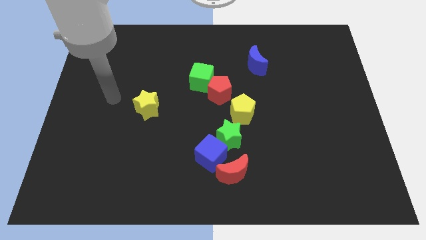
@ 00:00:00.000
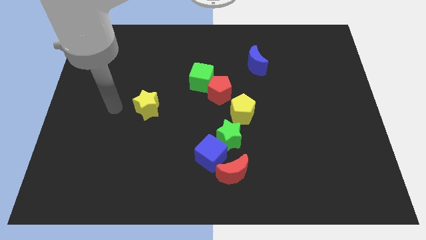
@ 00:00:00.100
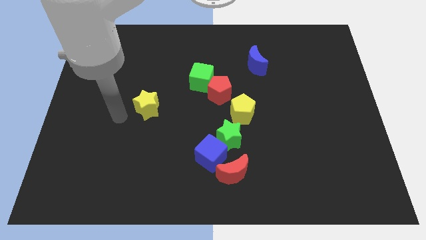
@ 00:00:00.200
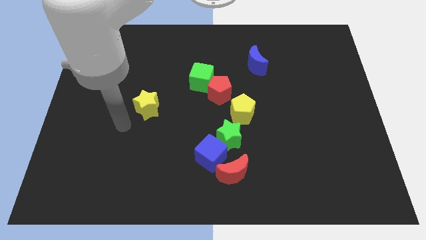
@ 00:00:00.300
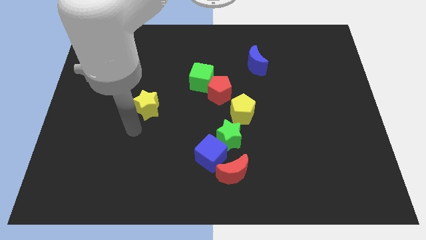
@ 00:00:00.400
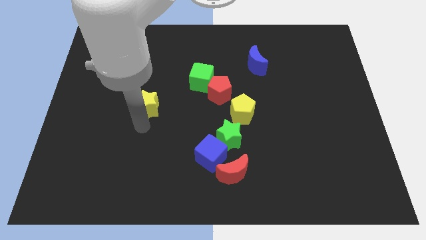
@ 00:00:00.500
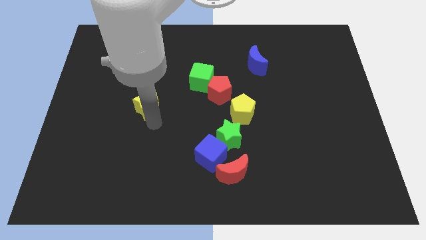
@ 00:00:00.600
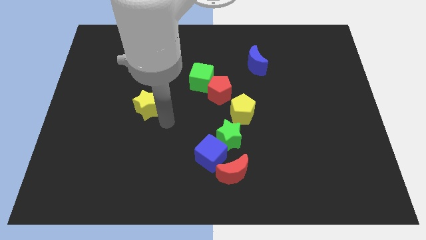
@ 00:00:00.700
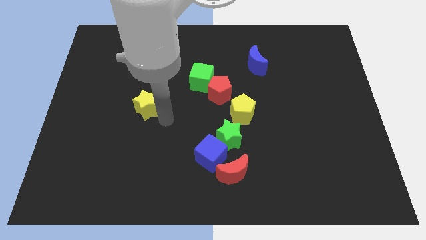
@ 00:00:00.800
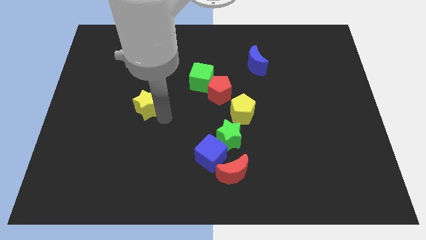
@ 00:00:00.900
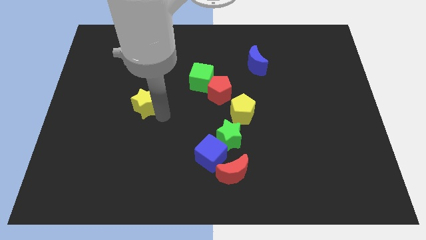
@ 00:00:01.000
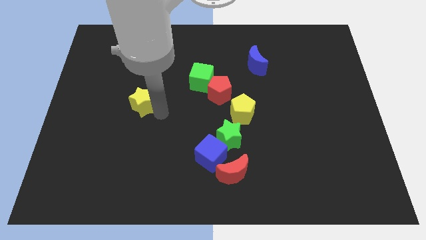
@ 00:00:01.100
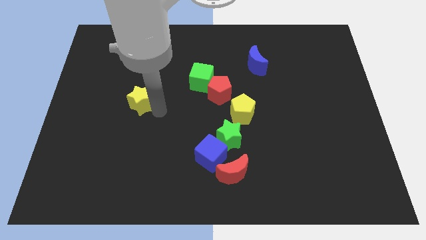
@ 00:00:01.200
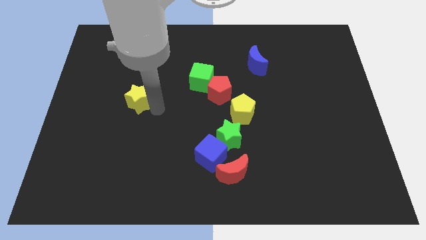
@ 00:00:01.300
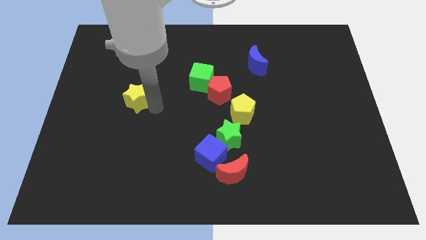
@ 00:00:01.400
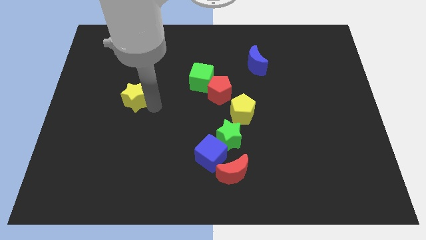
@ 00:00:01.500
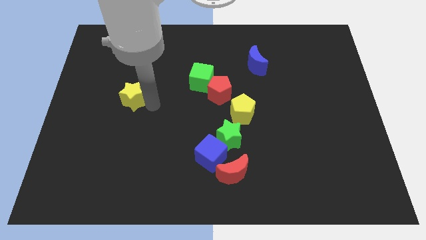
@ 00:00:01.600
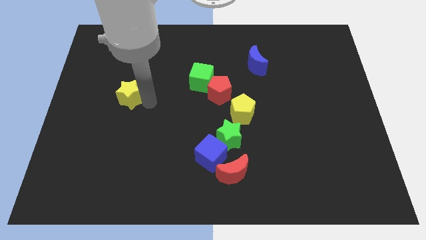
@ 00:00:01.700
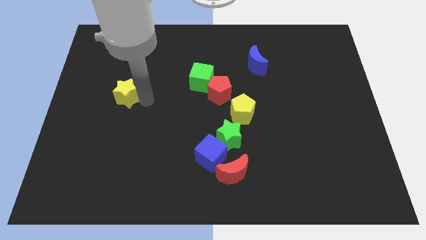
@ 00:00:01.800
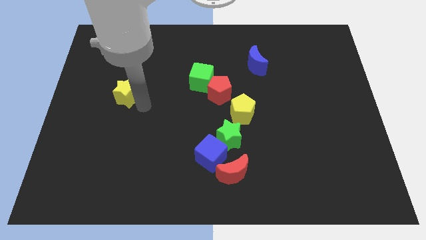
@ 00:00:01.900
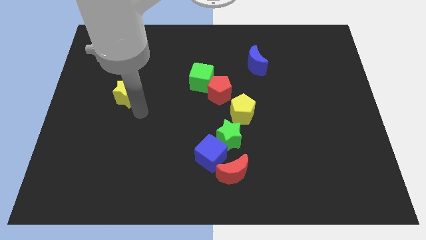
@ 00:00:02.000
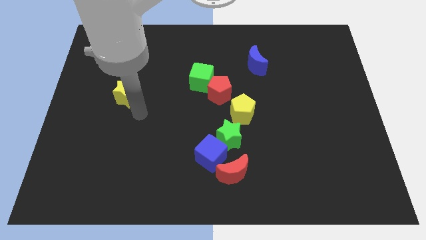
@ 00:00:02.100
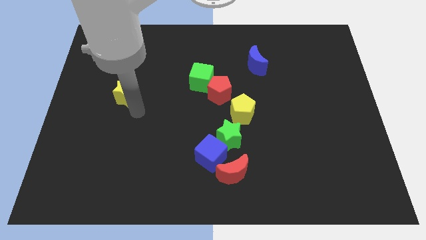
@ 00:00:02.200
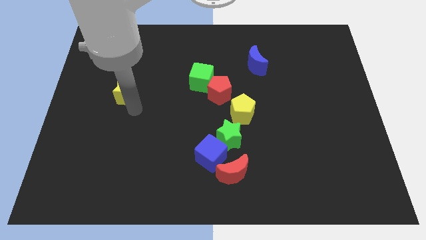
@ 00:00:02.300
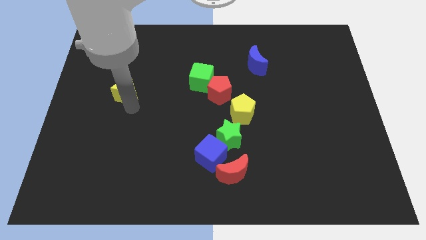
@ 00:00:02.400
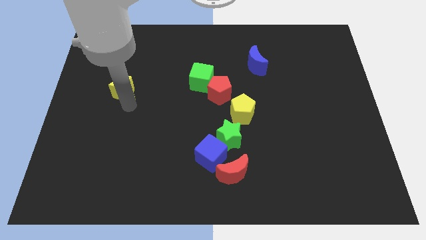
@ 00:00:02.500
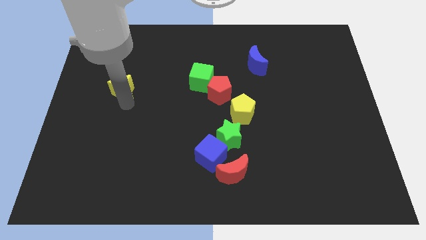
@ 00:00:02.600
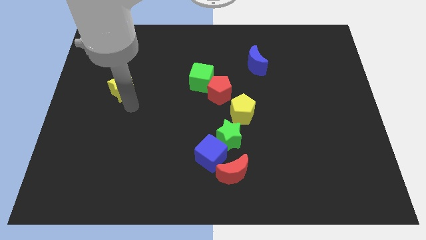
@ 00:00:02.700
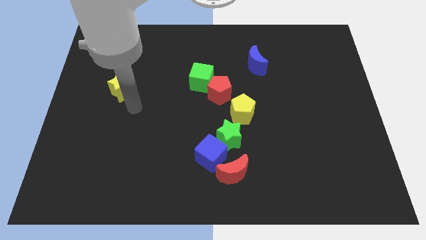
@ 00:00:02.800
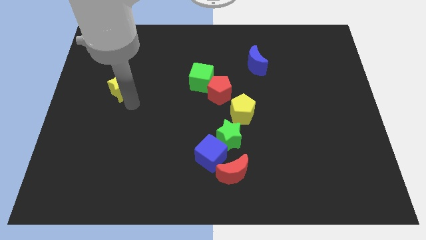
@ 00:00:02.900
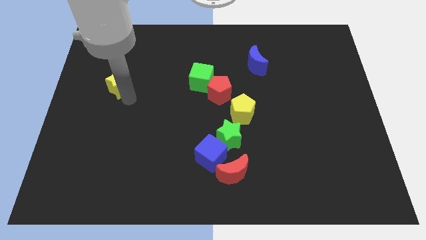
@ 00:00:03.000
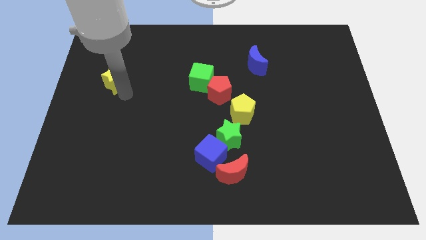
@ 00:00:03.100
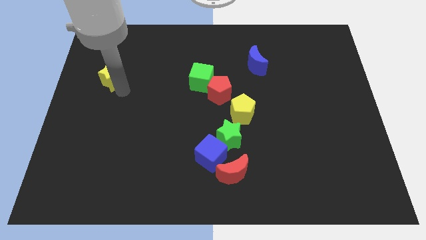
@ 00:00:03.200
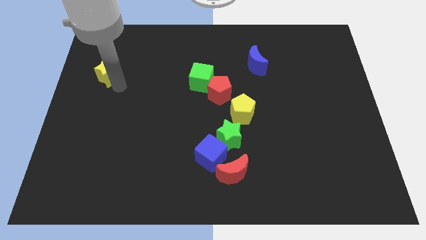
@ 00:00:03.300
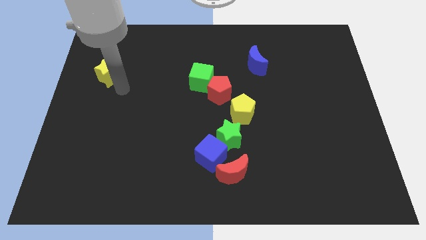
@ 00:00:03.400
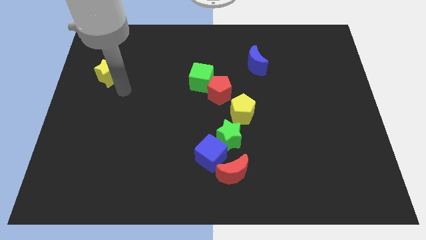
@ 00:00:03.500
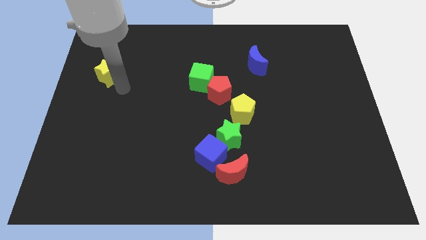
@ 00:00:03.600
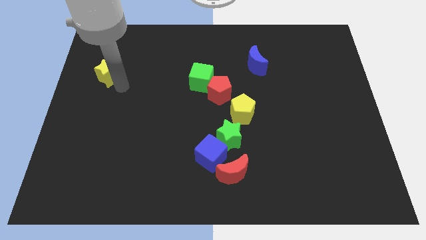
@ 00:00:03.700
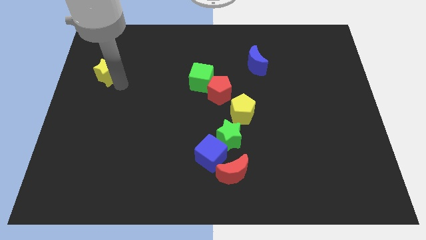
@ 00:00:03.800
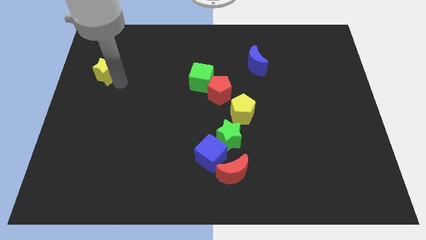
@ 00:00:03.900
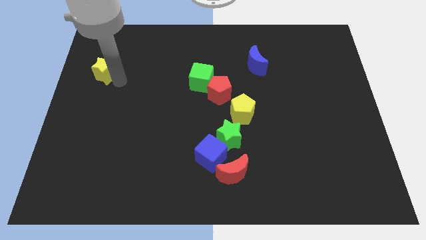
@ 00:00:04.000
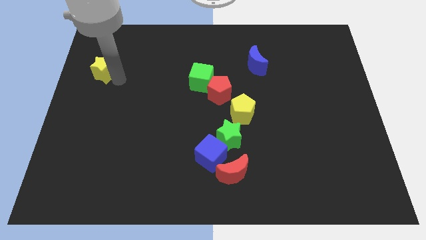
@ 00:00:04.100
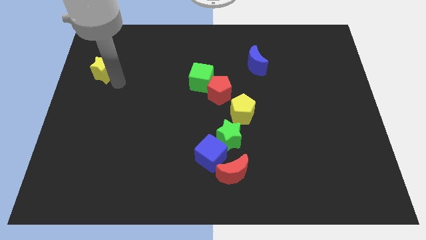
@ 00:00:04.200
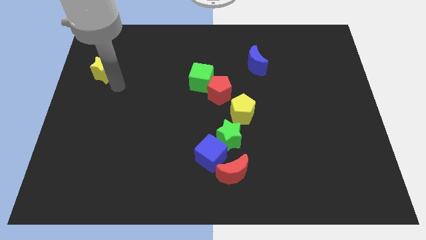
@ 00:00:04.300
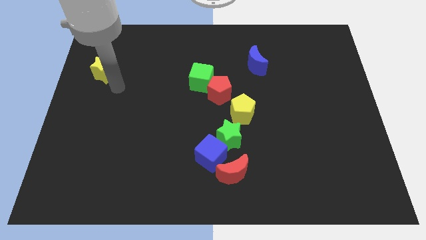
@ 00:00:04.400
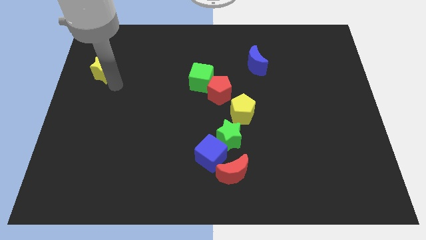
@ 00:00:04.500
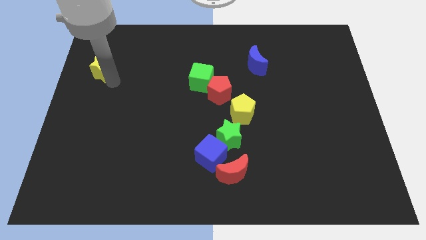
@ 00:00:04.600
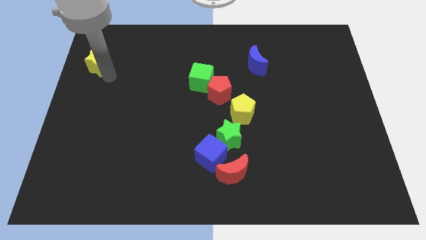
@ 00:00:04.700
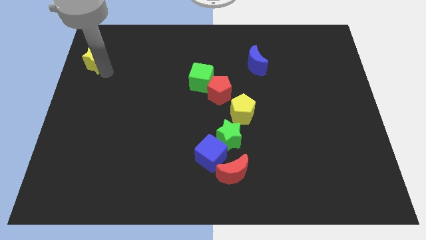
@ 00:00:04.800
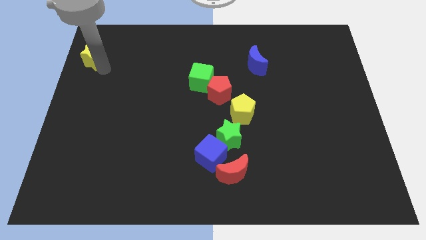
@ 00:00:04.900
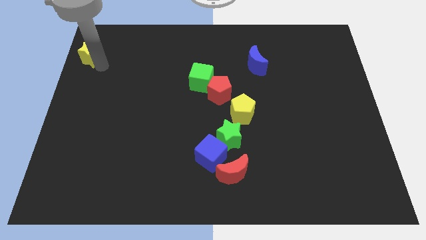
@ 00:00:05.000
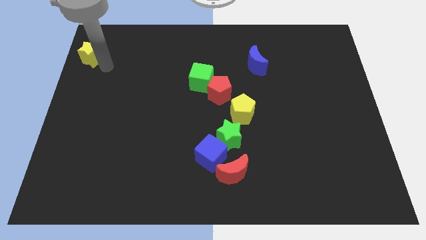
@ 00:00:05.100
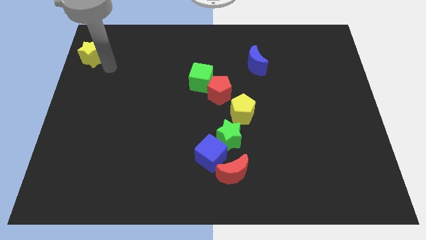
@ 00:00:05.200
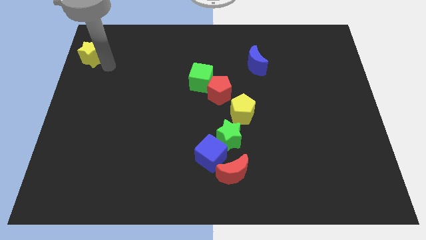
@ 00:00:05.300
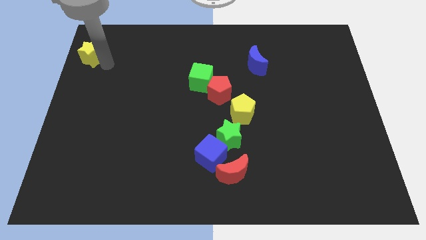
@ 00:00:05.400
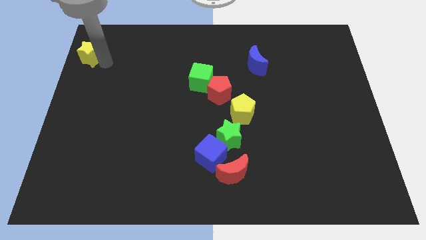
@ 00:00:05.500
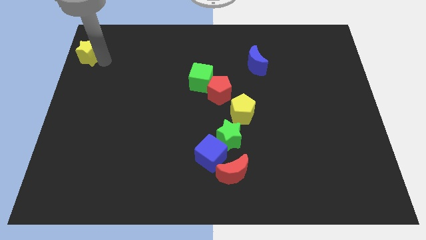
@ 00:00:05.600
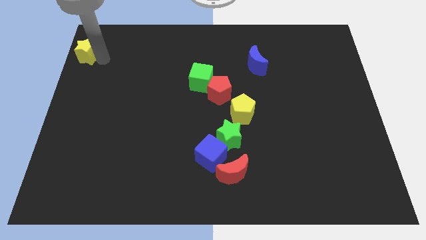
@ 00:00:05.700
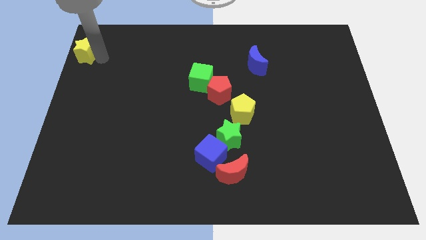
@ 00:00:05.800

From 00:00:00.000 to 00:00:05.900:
slide the yellow star to the top left
